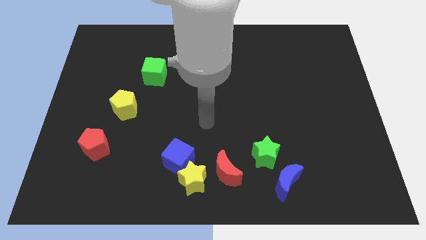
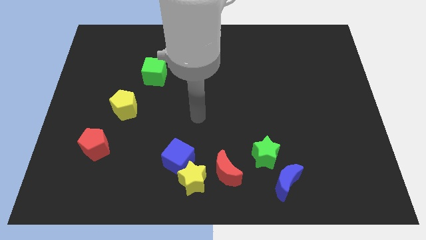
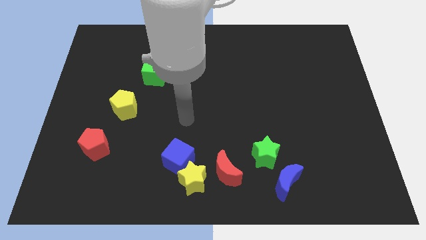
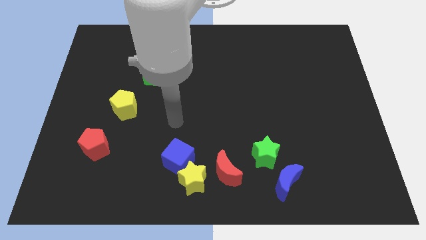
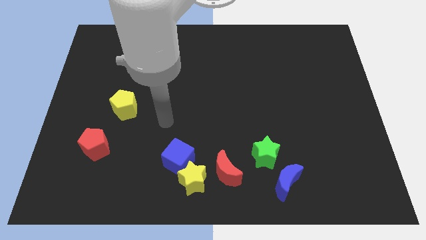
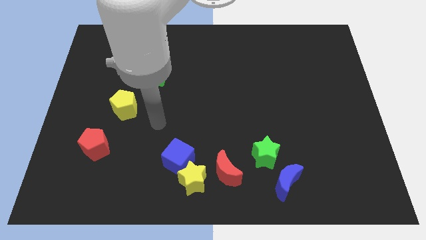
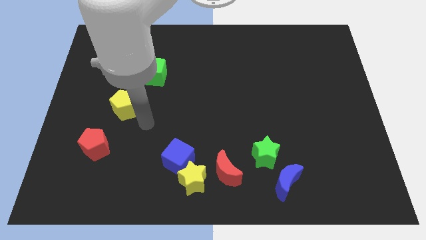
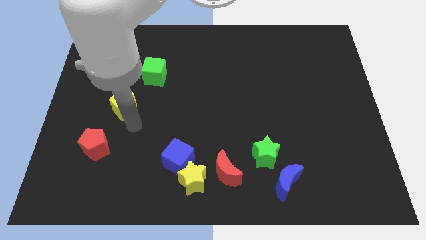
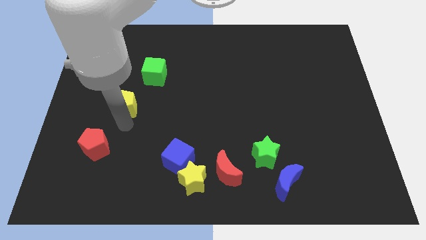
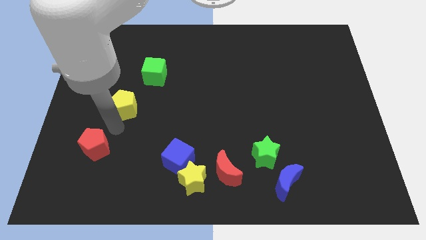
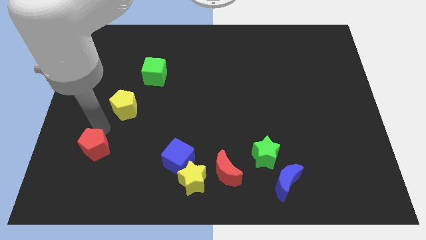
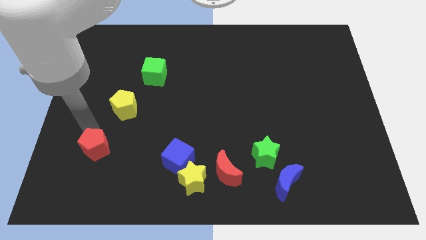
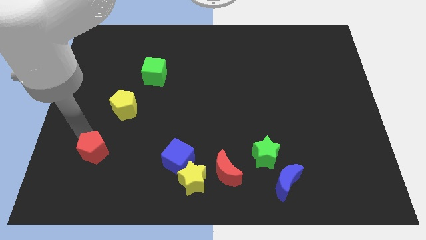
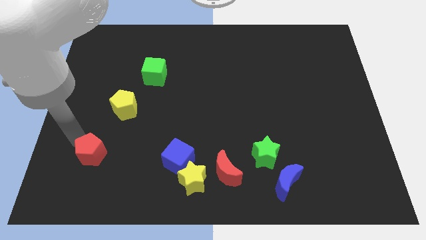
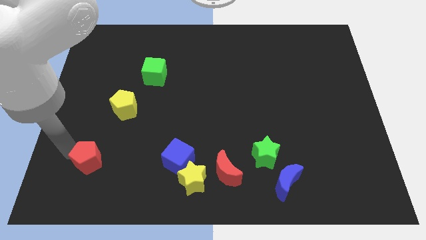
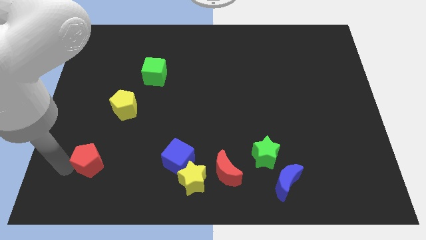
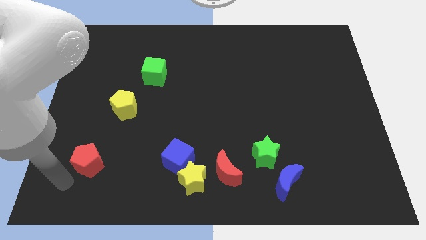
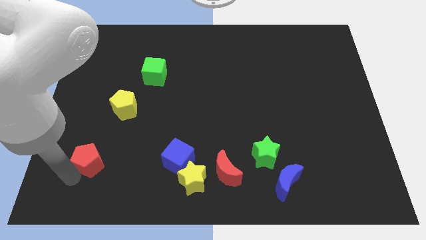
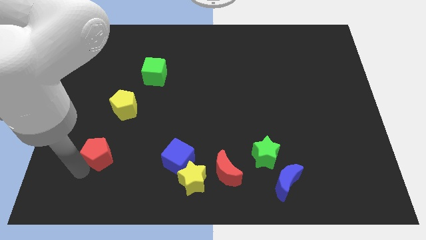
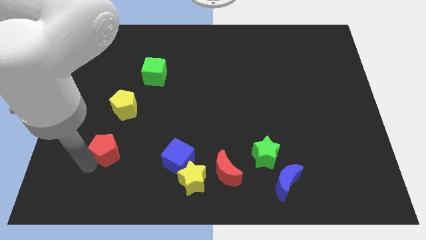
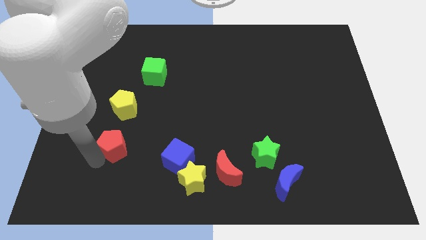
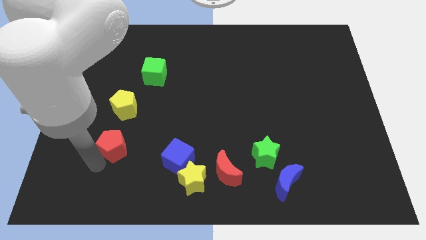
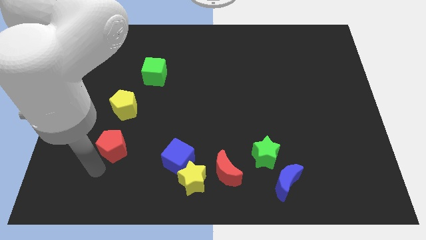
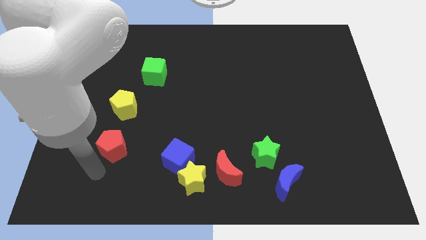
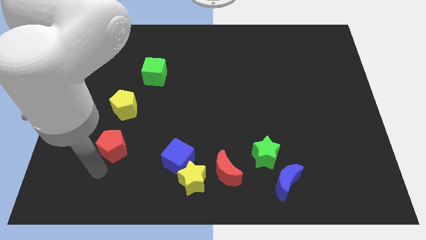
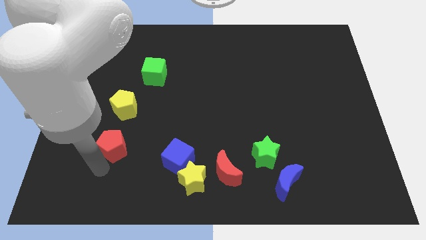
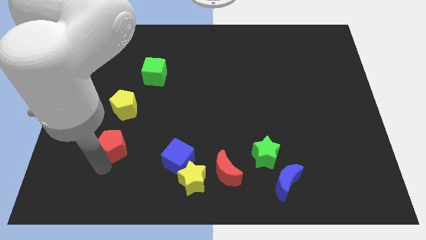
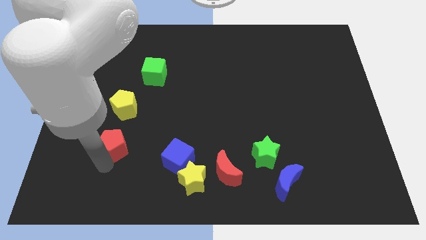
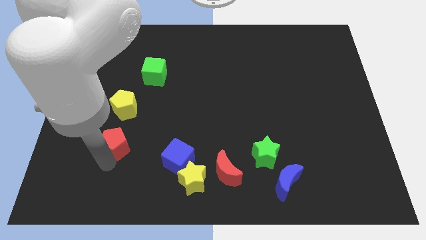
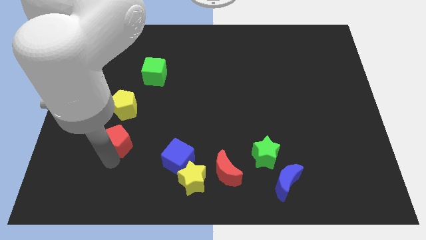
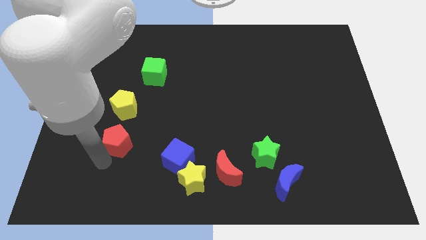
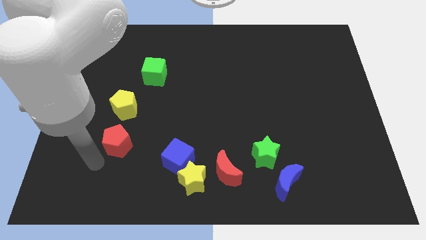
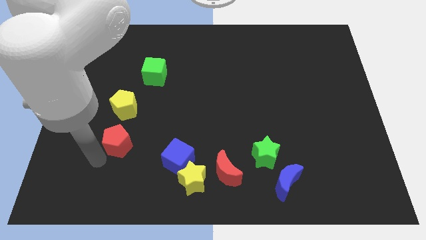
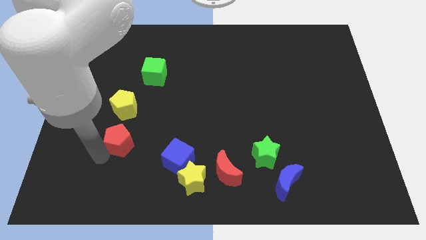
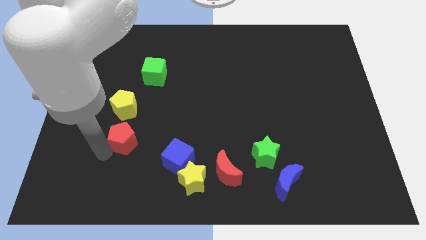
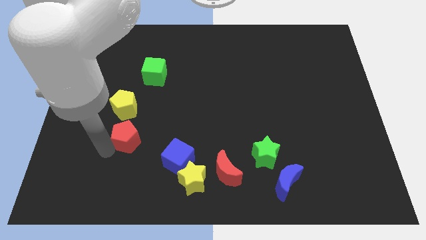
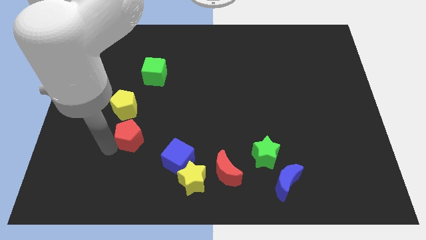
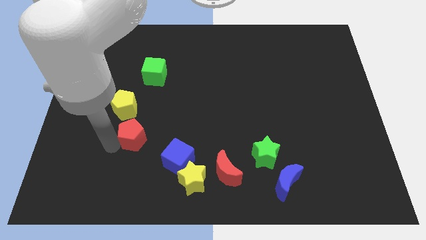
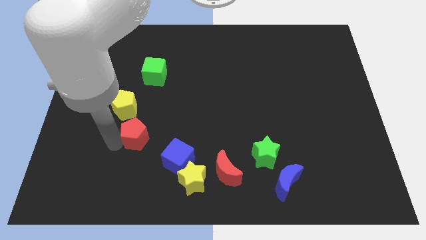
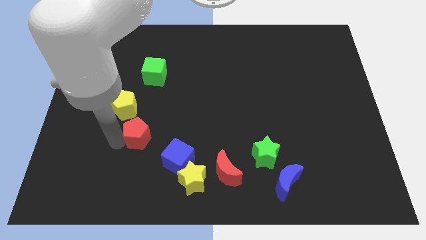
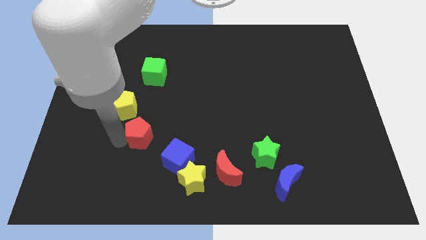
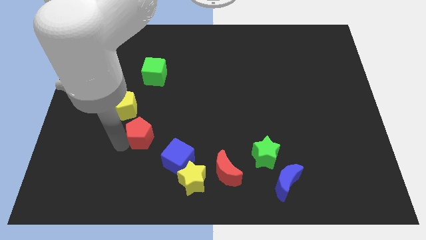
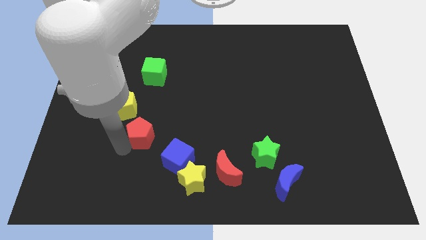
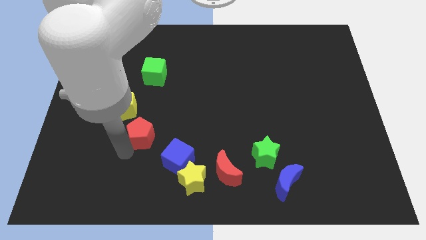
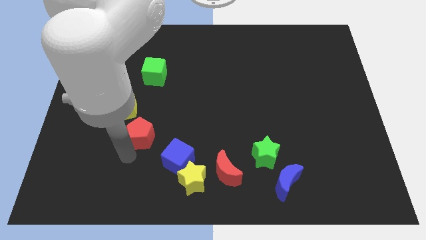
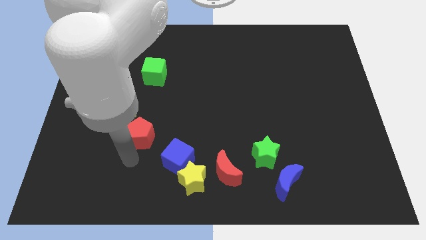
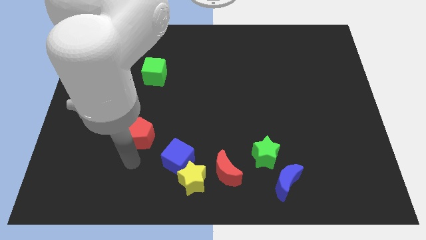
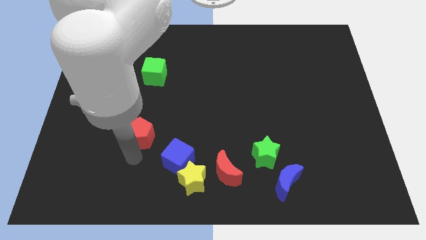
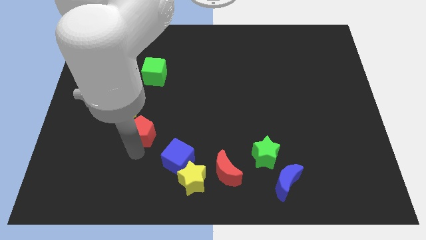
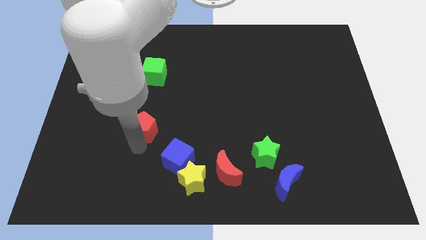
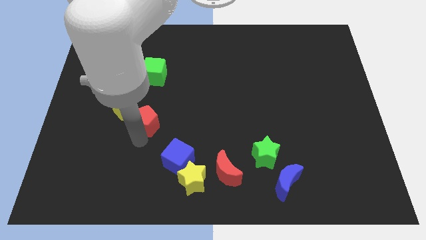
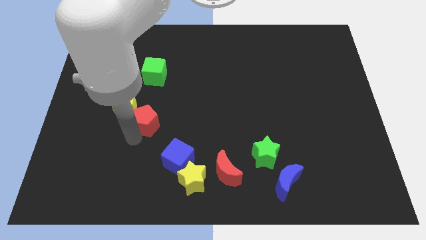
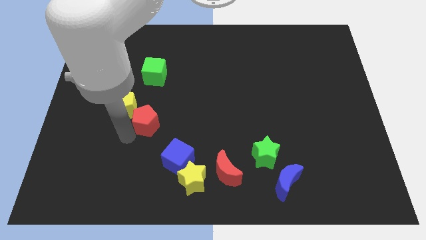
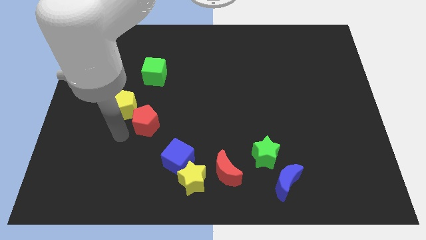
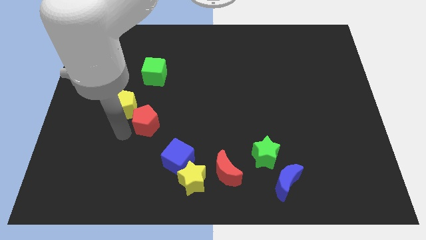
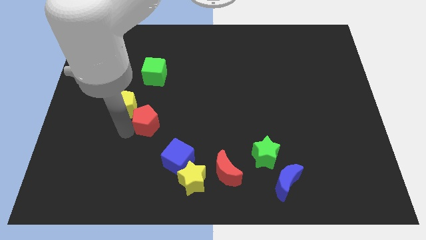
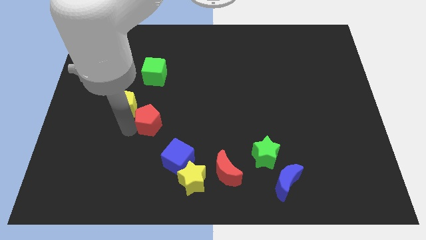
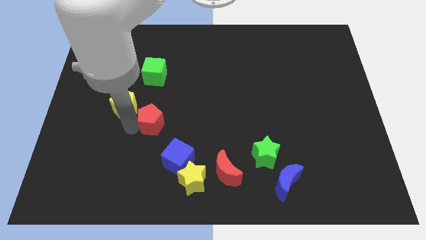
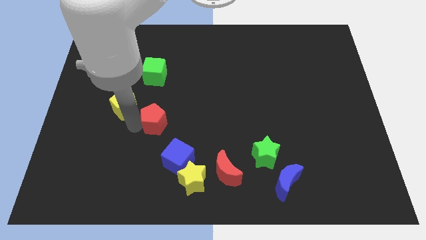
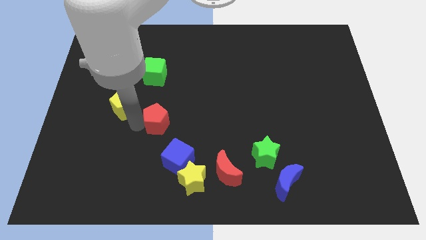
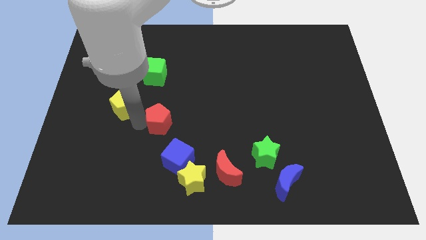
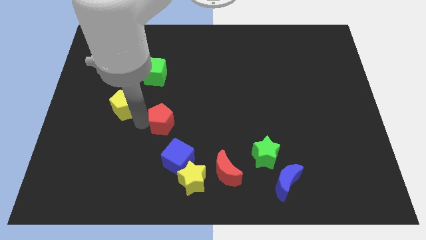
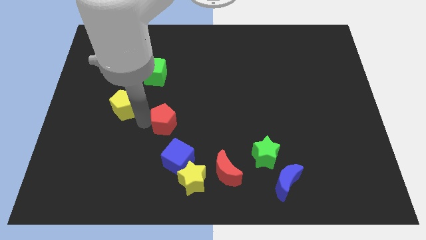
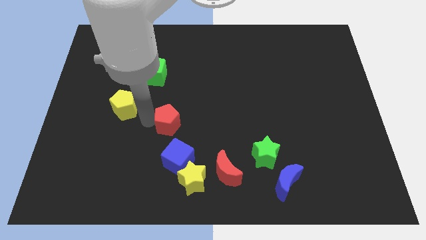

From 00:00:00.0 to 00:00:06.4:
put the red pentagon to the middle of the board
